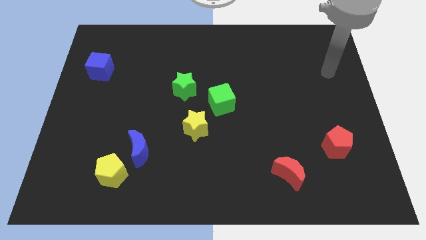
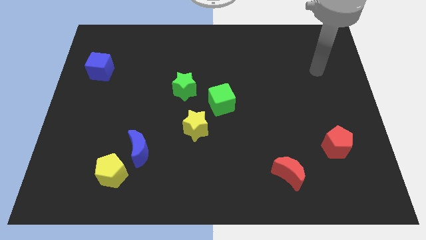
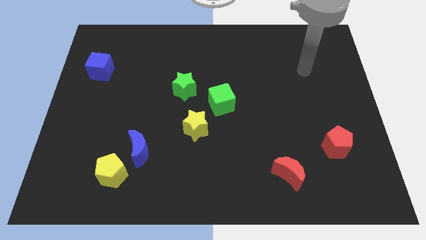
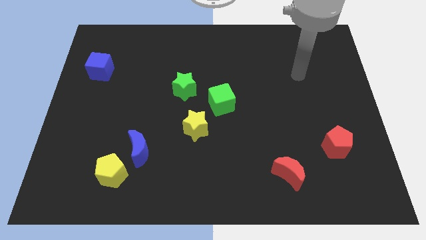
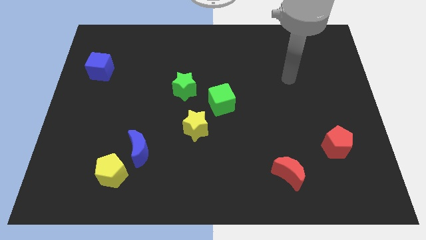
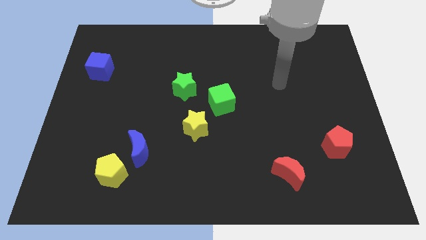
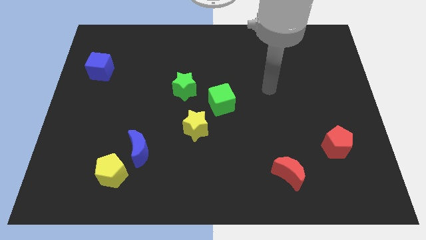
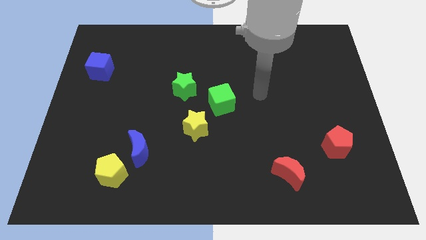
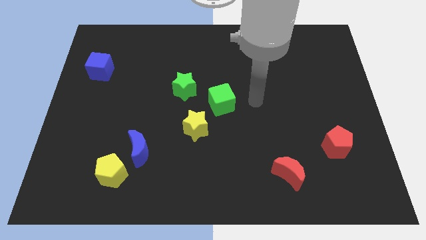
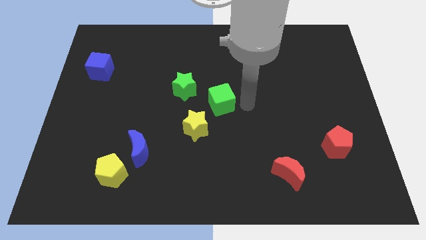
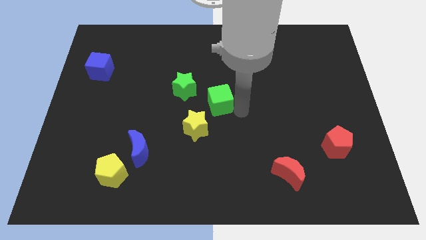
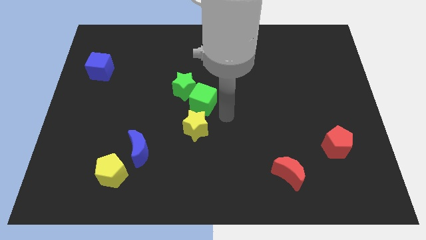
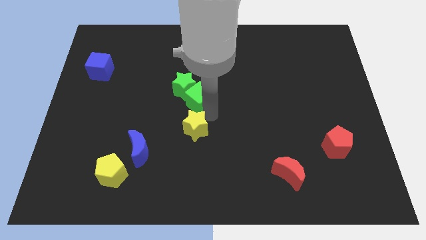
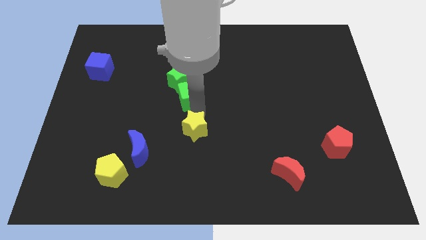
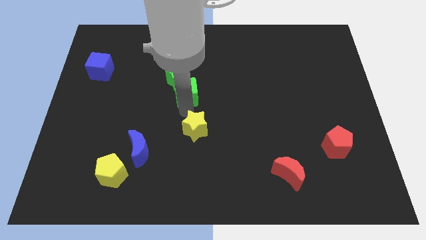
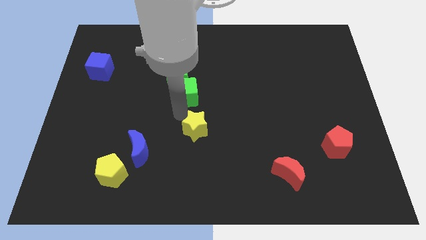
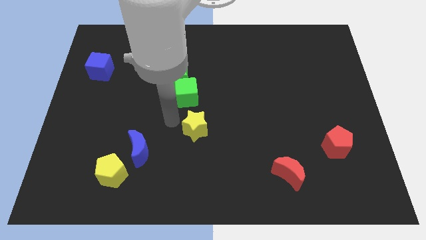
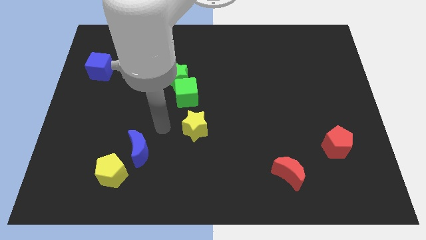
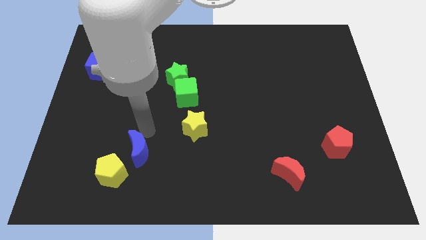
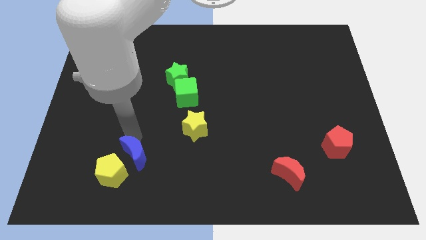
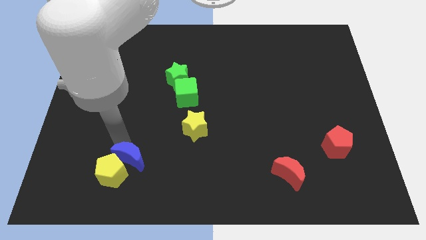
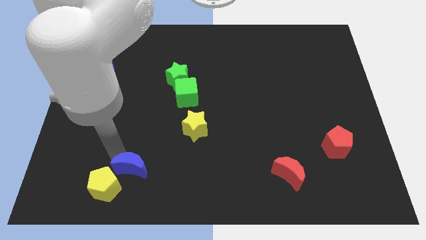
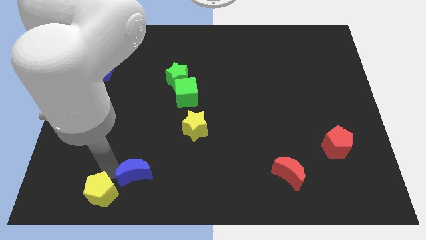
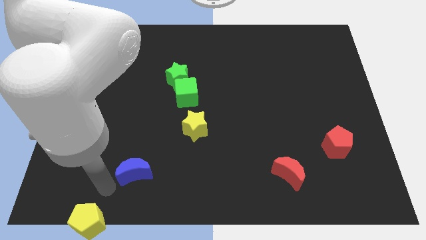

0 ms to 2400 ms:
pull the blue moon apart from the yellow pentagon

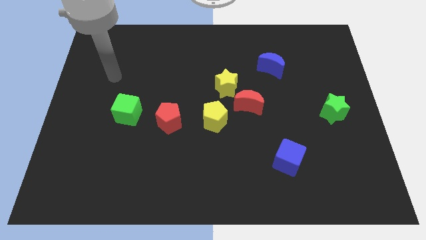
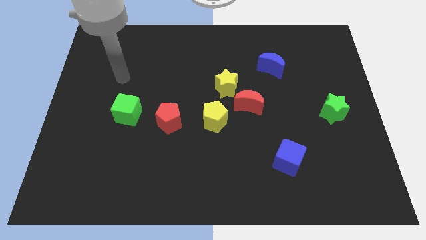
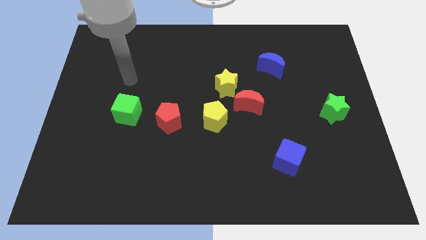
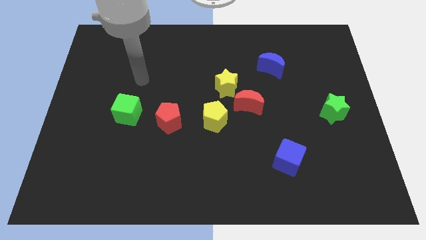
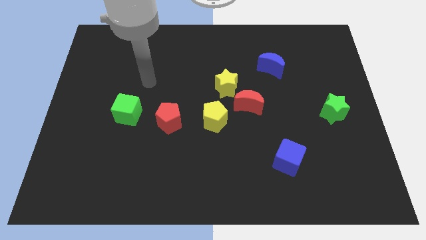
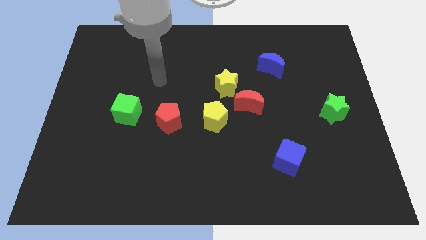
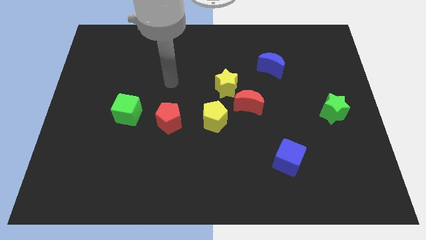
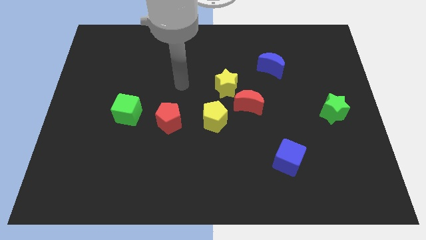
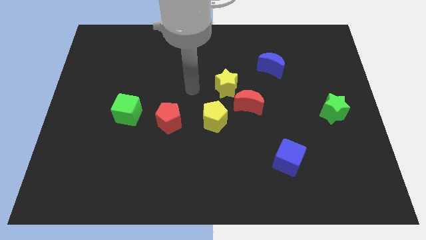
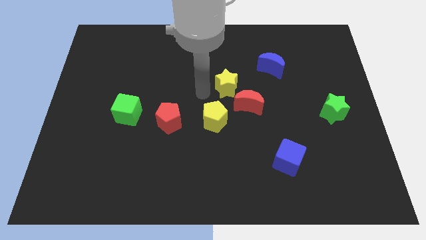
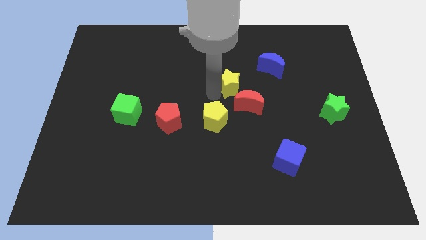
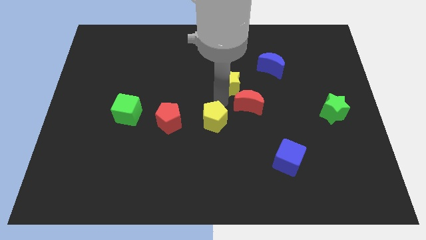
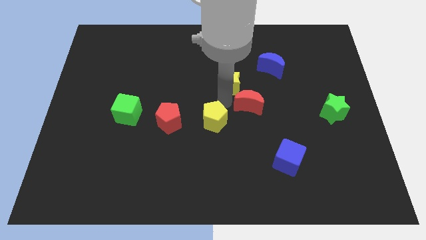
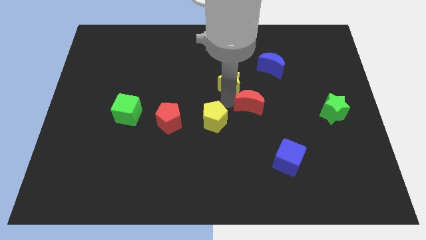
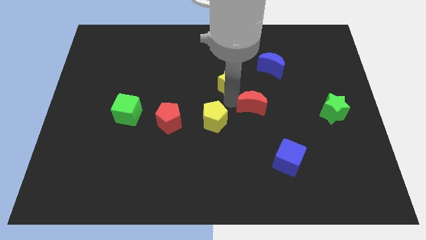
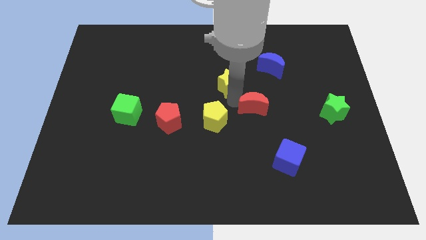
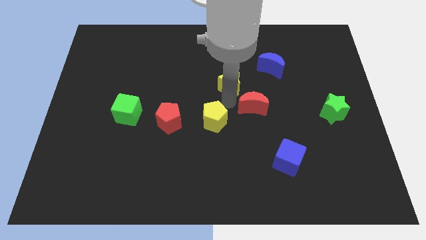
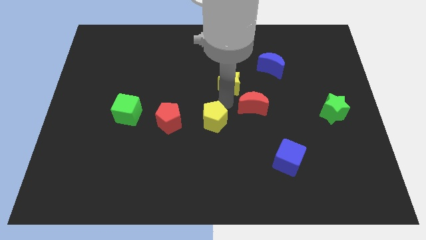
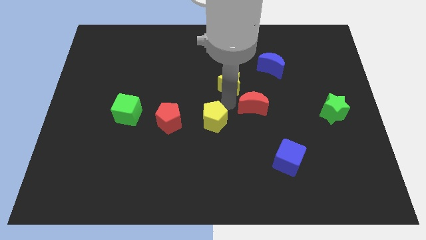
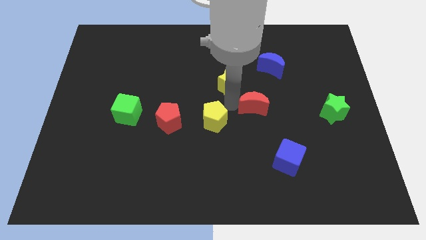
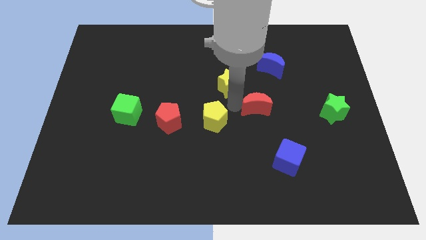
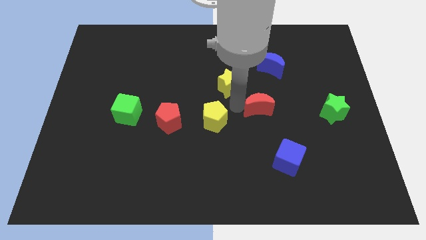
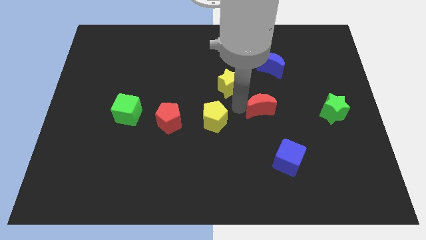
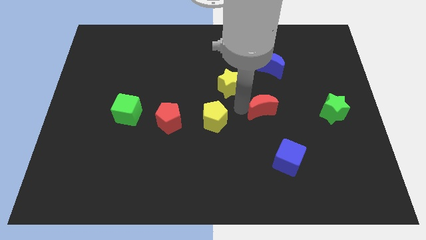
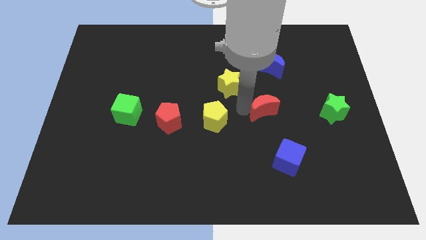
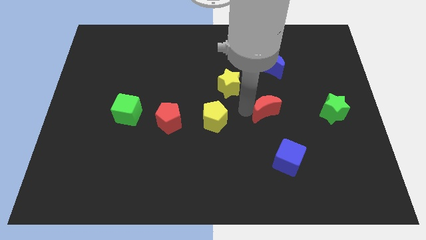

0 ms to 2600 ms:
pull the red moon apart from the yellow star and yellow pentagon

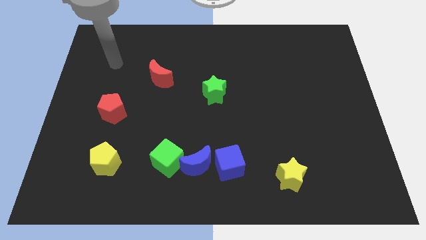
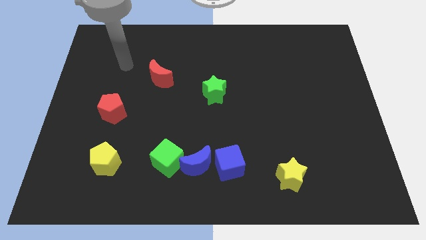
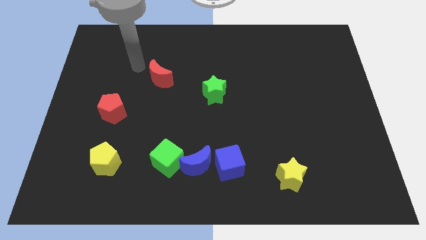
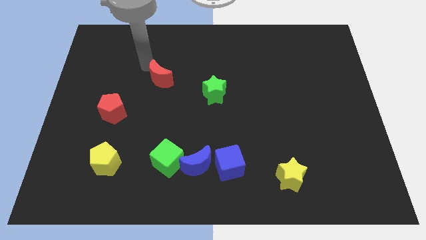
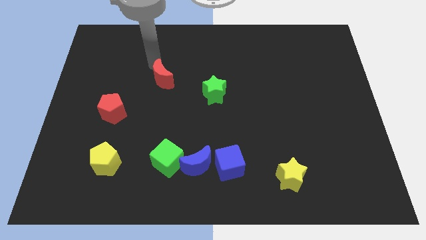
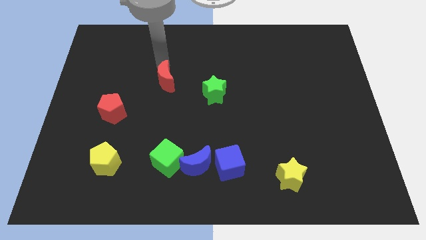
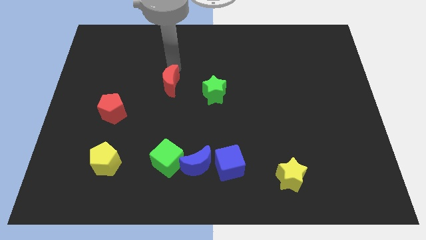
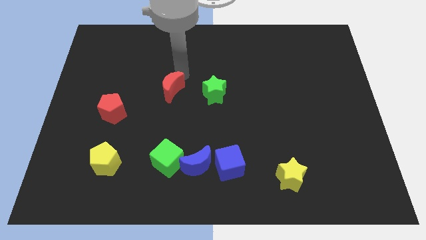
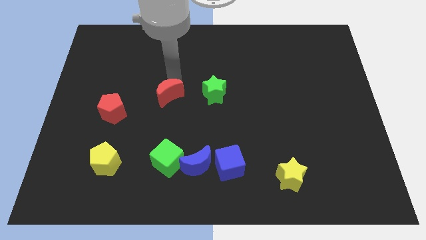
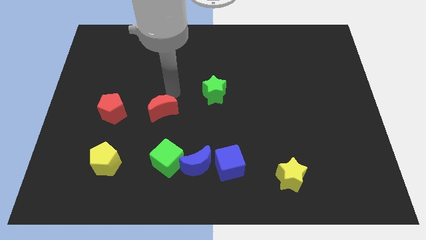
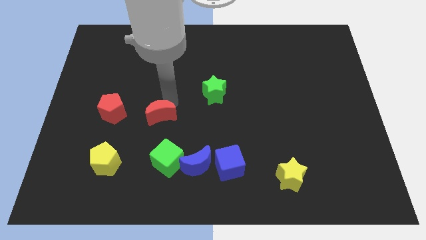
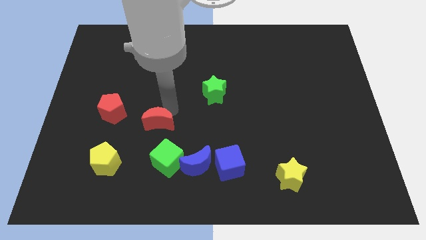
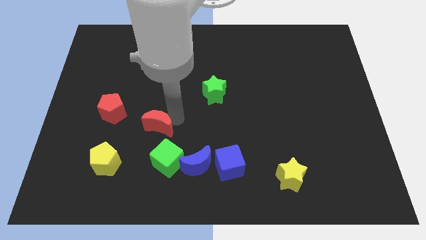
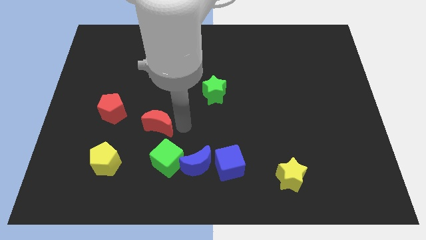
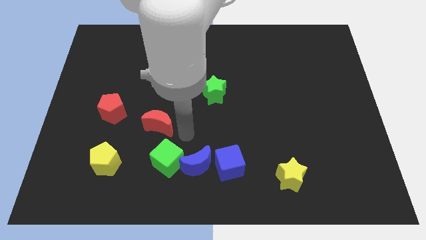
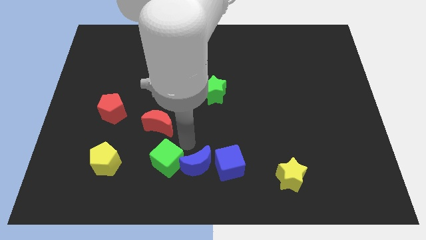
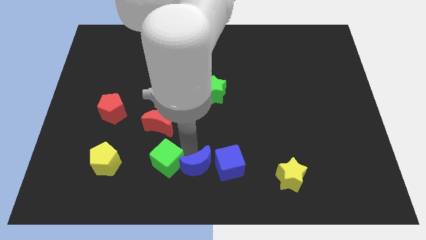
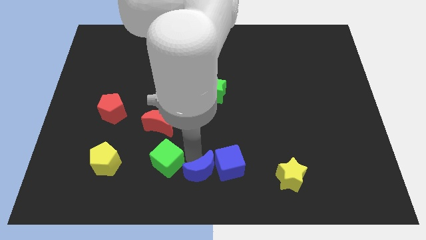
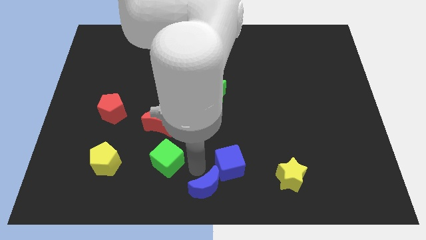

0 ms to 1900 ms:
separate the green cube from the blue moon

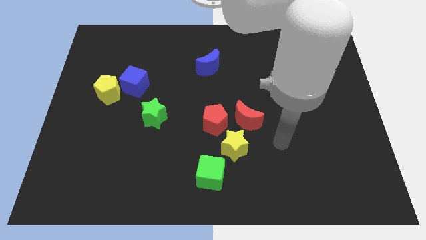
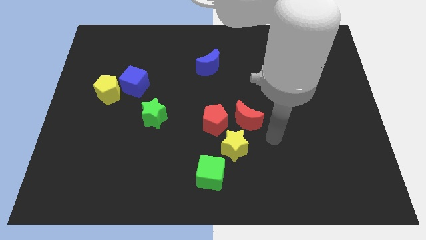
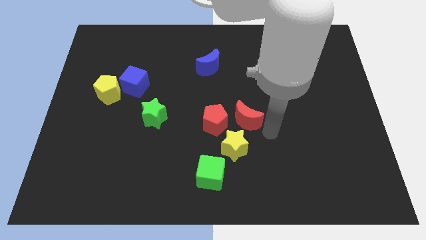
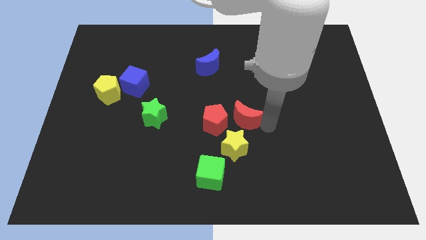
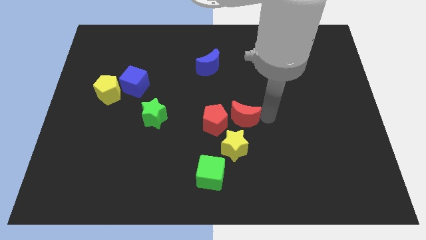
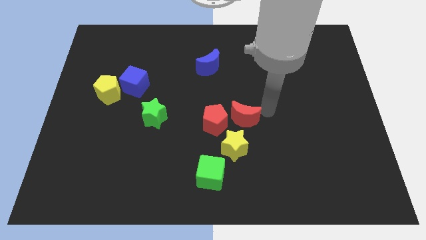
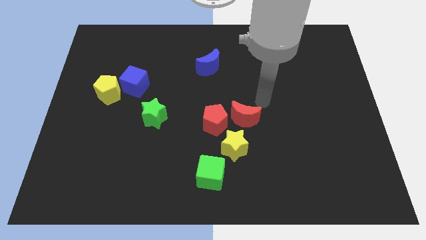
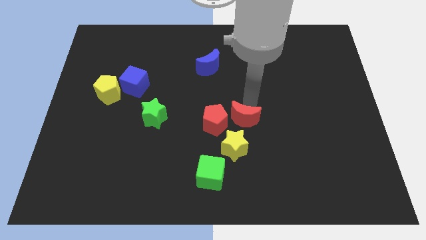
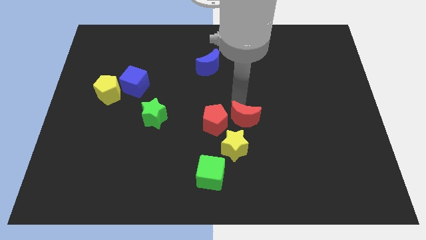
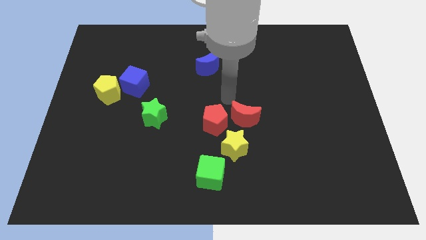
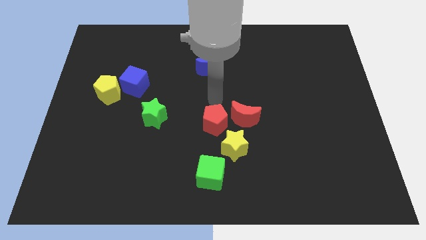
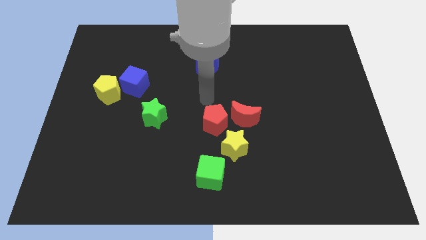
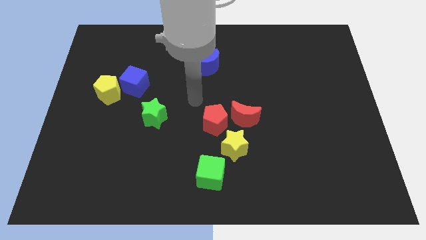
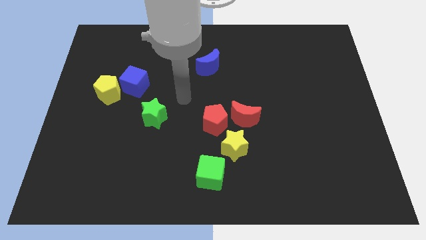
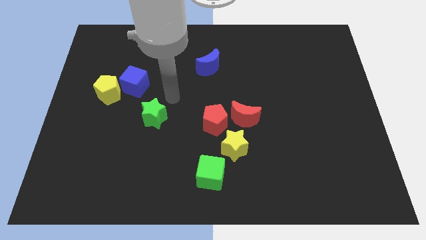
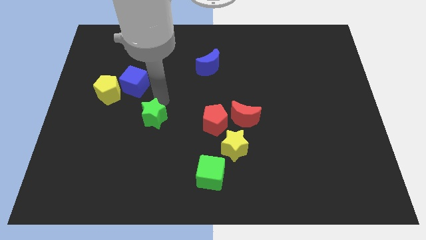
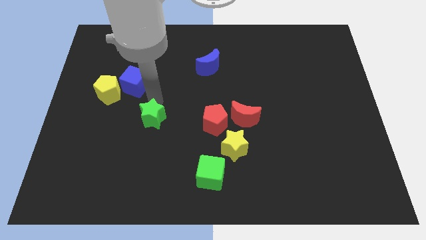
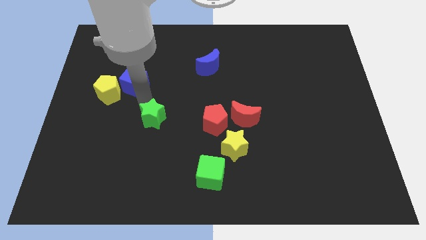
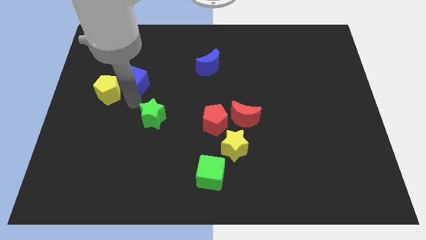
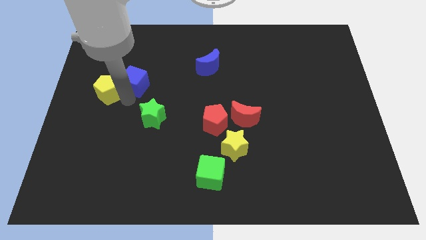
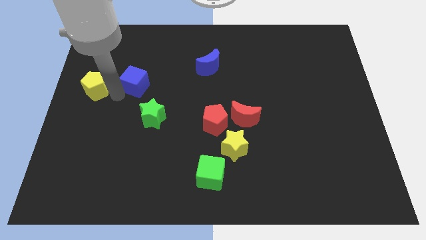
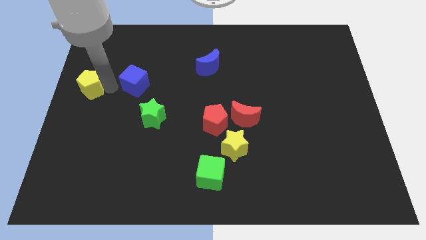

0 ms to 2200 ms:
separate the blue cube from the yellow pentagon

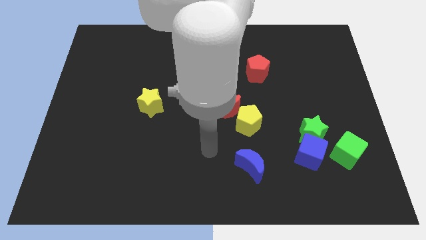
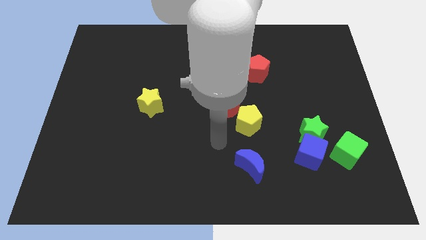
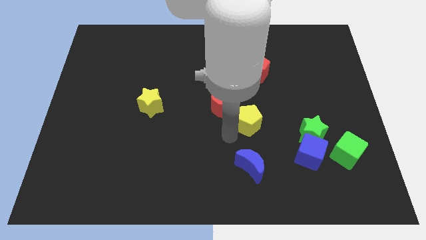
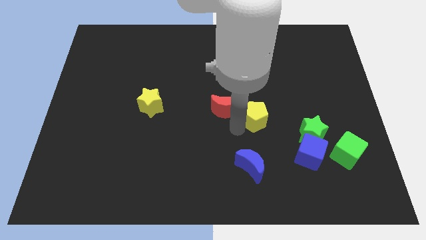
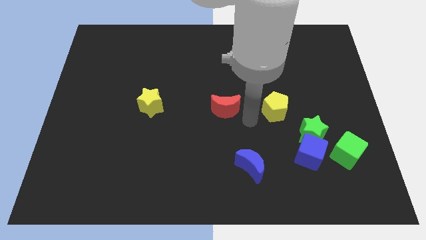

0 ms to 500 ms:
move the red moon away from the yellow pentagon
